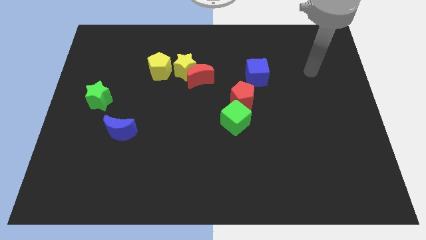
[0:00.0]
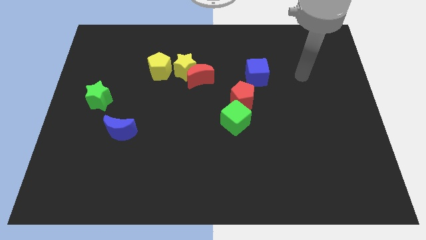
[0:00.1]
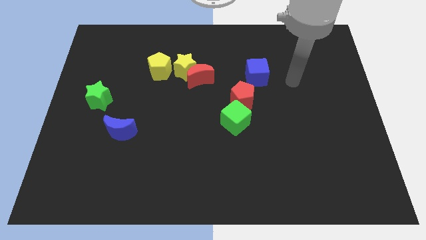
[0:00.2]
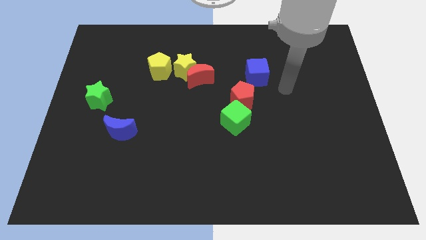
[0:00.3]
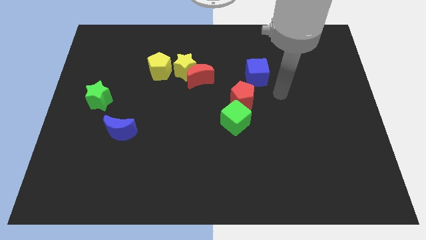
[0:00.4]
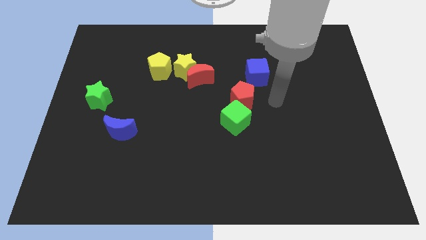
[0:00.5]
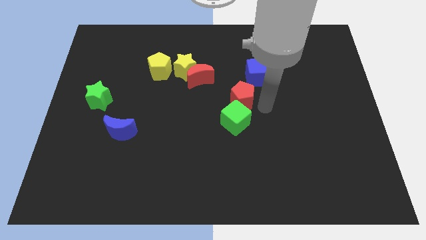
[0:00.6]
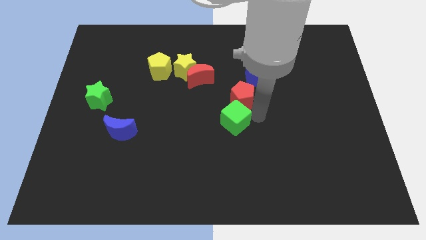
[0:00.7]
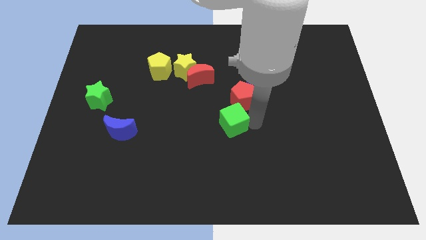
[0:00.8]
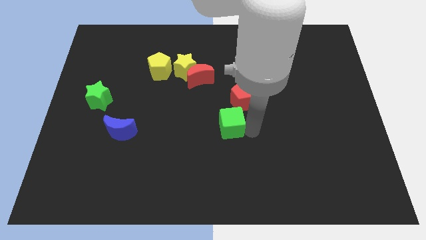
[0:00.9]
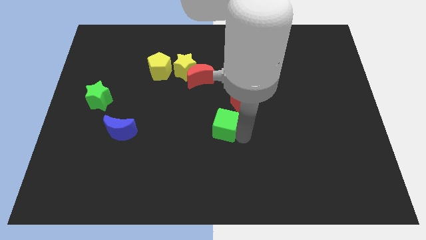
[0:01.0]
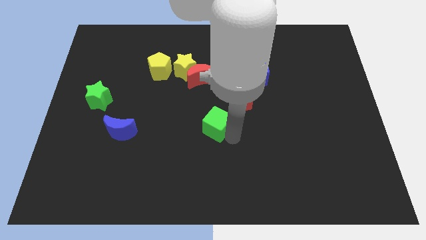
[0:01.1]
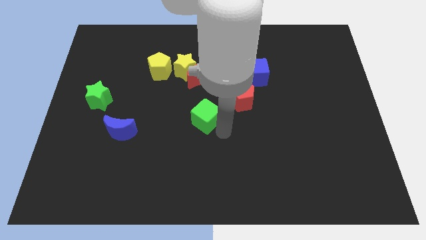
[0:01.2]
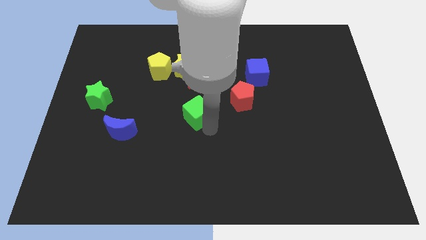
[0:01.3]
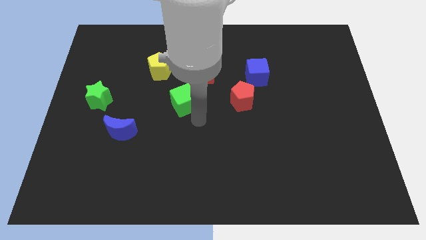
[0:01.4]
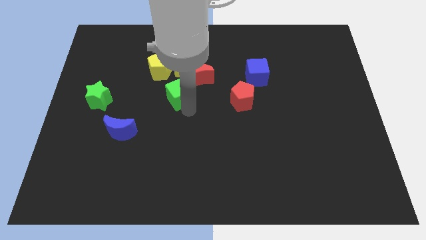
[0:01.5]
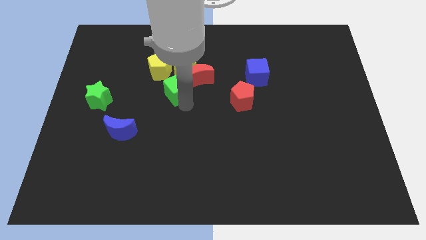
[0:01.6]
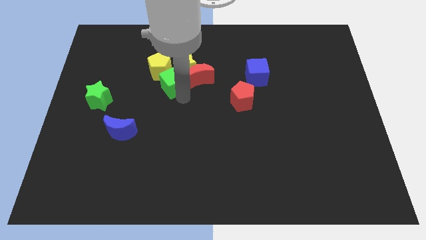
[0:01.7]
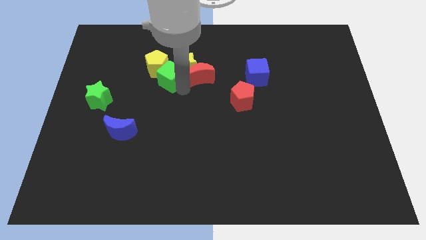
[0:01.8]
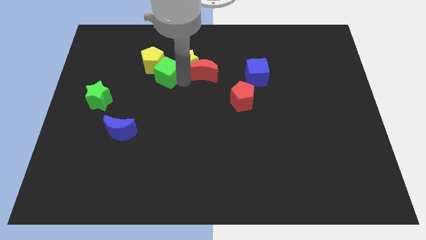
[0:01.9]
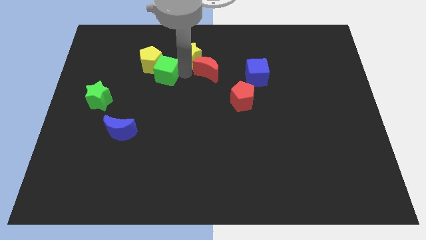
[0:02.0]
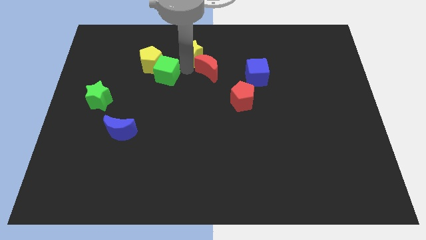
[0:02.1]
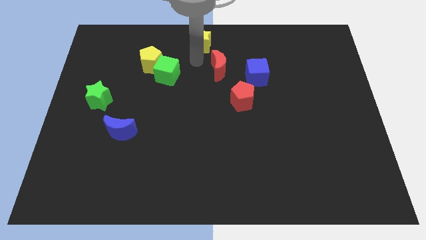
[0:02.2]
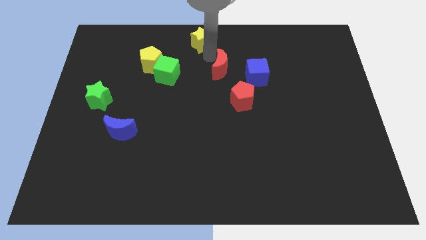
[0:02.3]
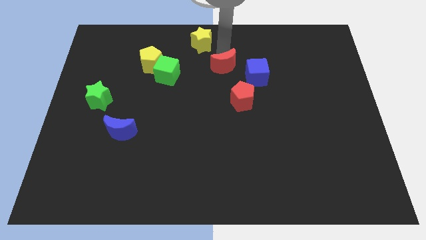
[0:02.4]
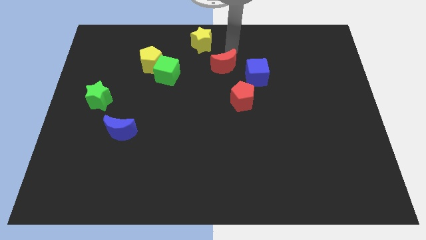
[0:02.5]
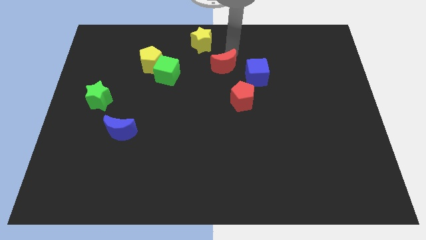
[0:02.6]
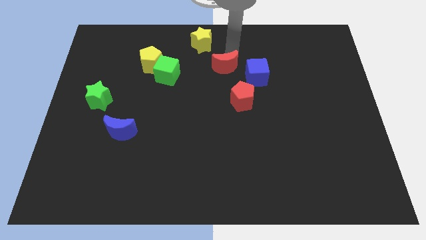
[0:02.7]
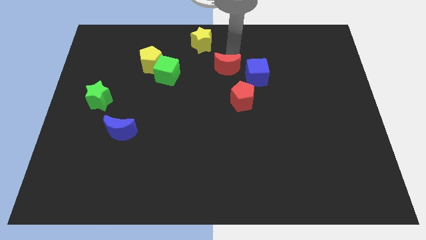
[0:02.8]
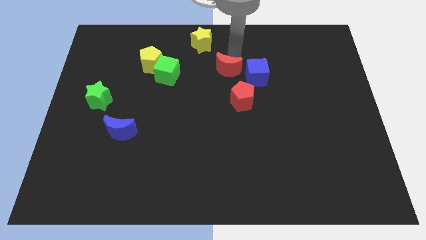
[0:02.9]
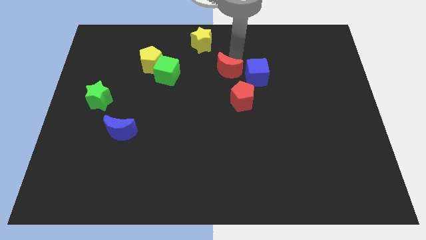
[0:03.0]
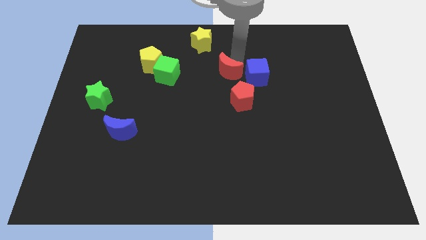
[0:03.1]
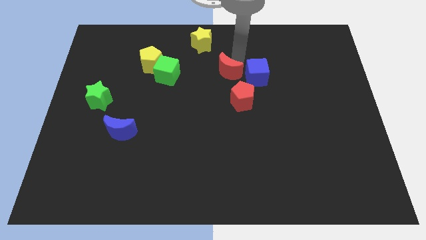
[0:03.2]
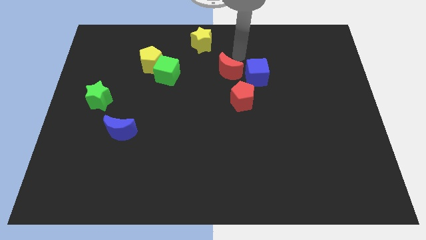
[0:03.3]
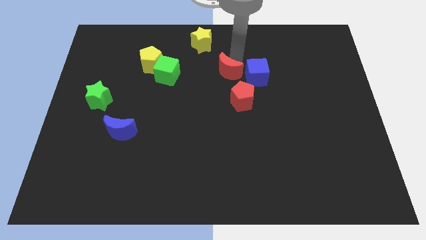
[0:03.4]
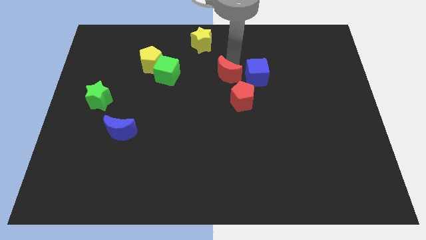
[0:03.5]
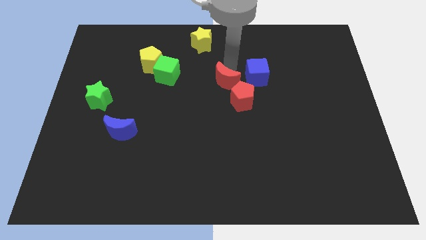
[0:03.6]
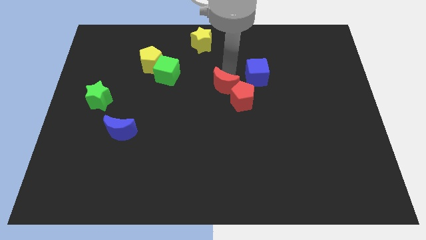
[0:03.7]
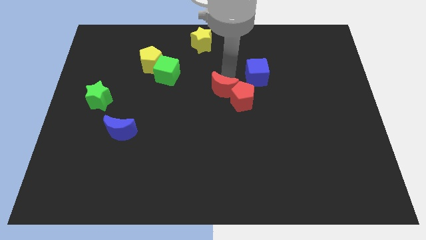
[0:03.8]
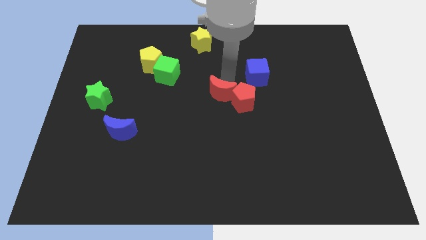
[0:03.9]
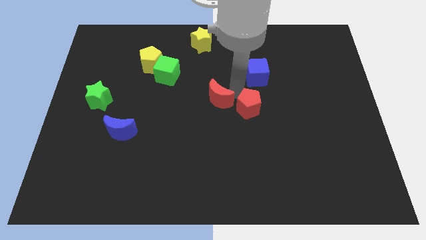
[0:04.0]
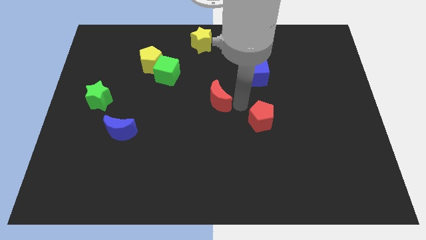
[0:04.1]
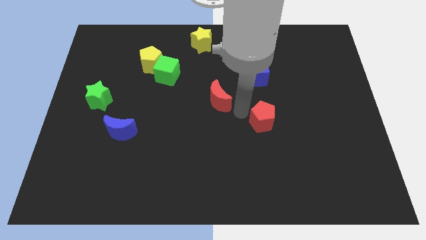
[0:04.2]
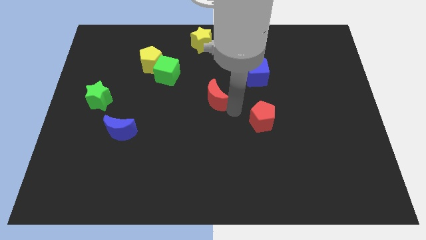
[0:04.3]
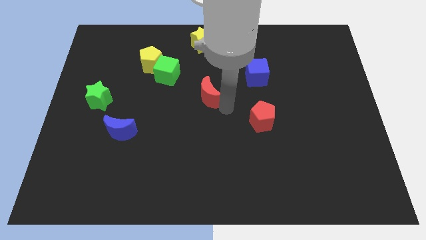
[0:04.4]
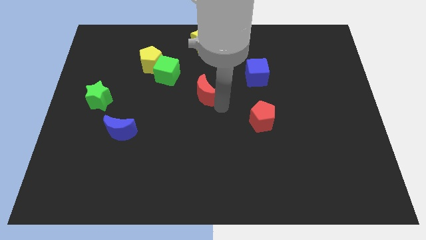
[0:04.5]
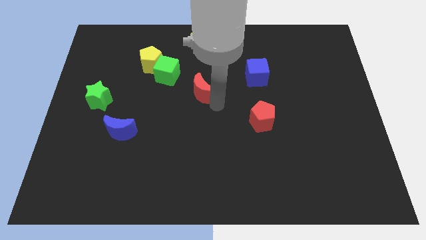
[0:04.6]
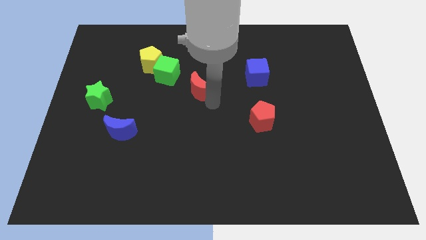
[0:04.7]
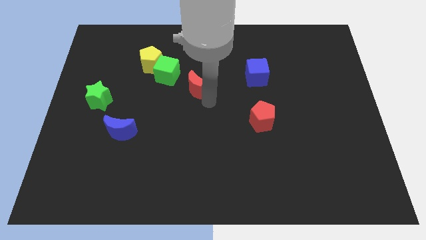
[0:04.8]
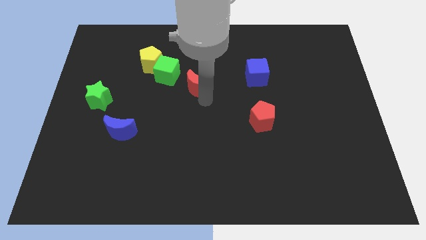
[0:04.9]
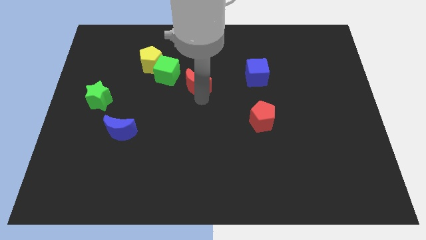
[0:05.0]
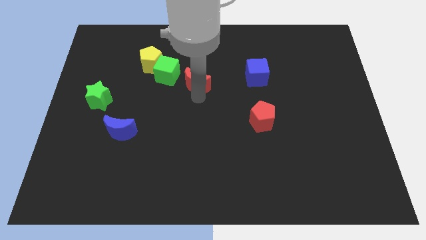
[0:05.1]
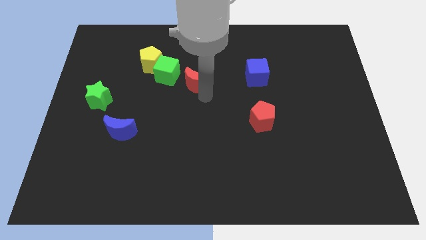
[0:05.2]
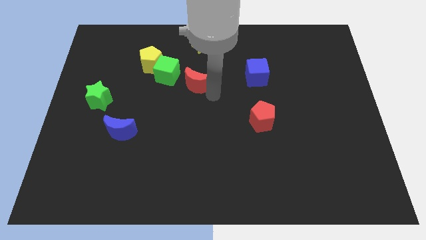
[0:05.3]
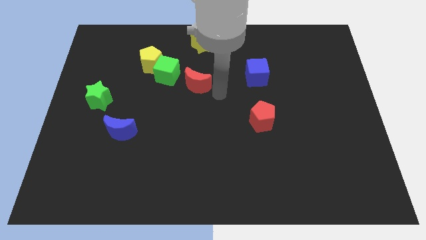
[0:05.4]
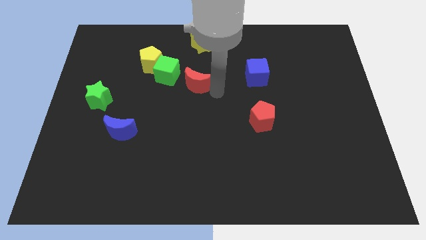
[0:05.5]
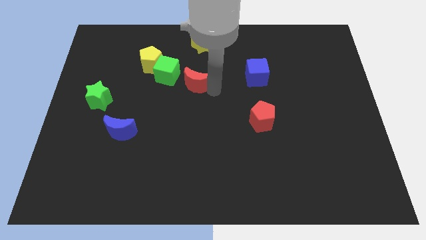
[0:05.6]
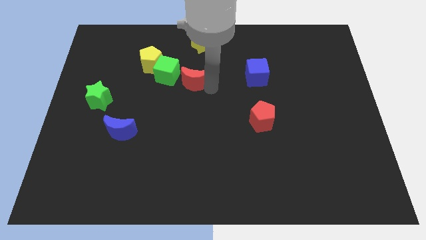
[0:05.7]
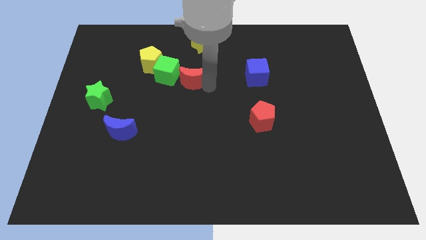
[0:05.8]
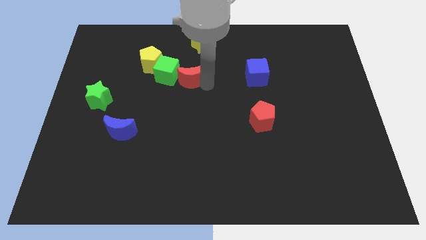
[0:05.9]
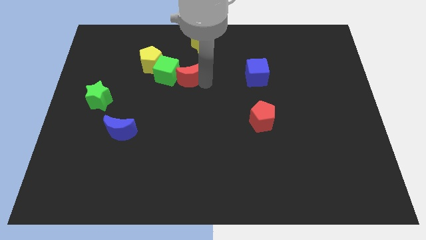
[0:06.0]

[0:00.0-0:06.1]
move the red moon close to the green cube

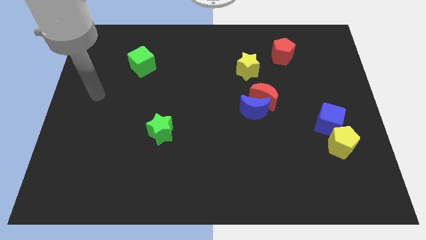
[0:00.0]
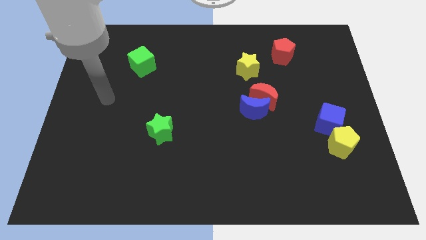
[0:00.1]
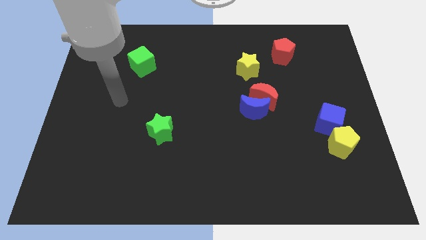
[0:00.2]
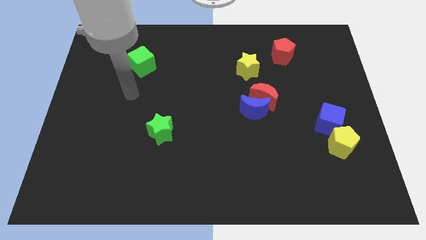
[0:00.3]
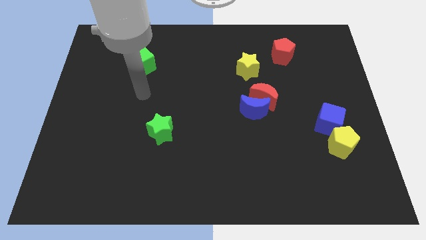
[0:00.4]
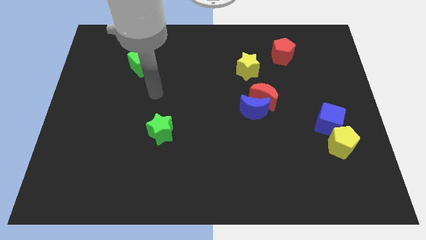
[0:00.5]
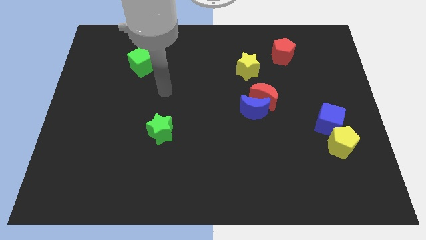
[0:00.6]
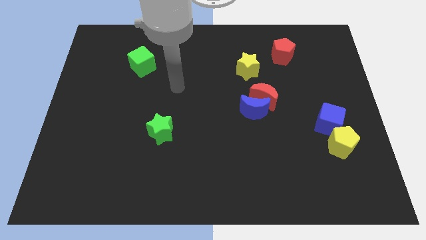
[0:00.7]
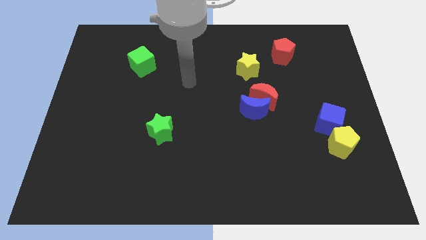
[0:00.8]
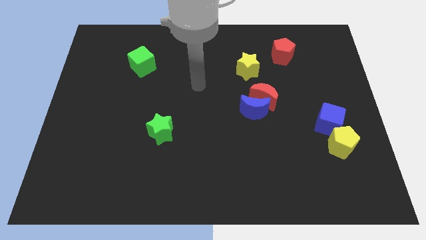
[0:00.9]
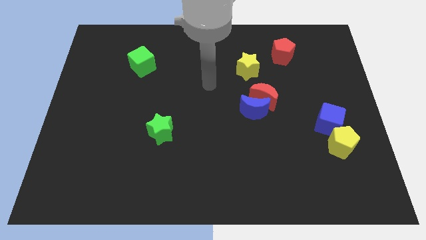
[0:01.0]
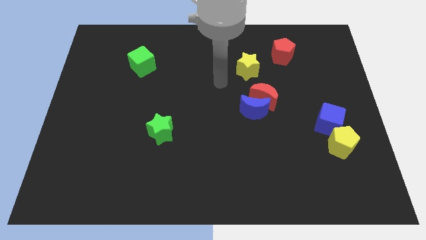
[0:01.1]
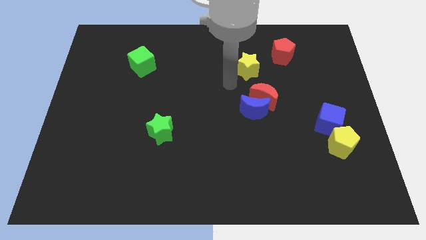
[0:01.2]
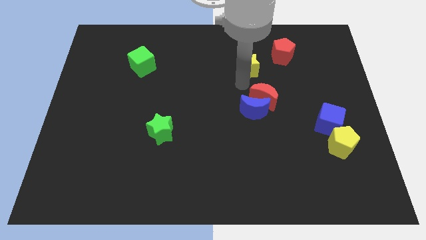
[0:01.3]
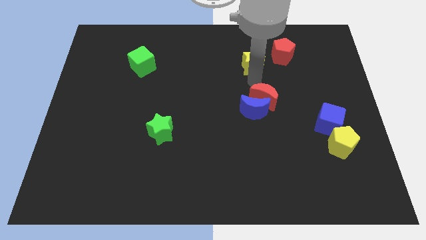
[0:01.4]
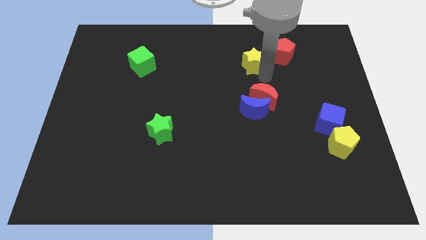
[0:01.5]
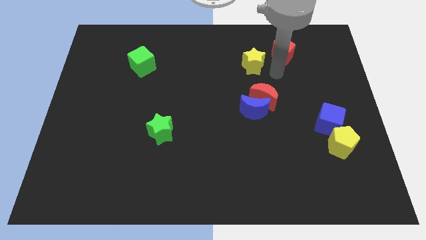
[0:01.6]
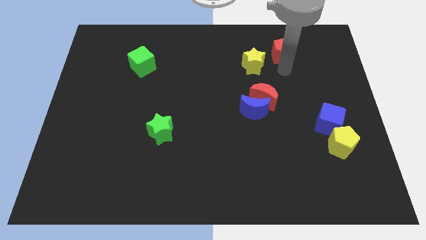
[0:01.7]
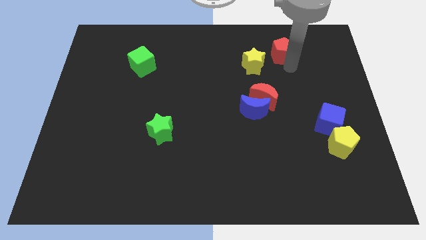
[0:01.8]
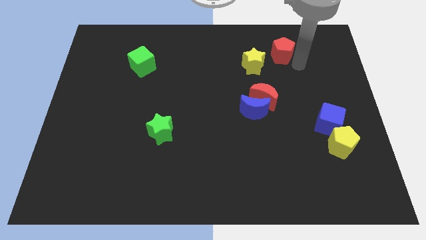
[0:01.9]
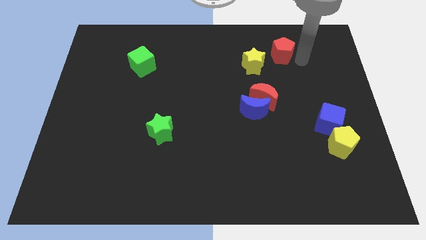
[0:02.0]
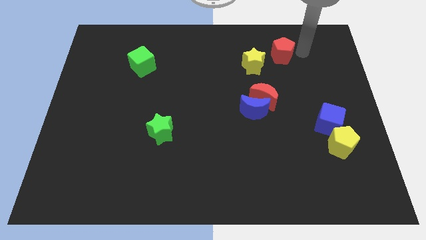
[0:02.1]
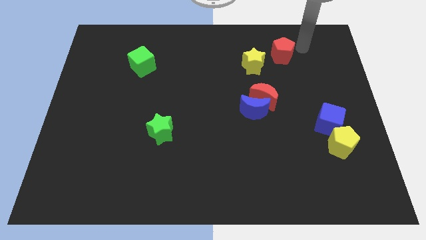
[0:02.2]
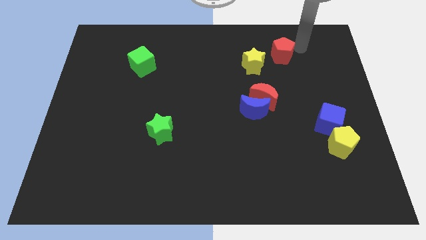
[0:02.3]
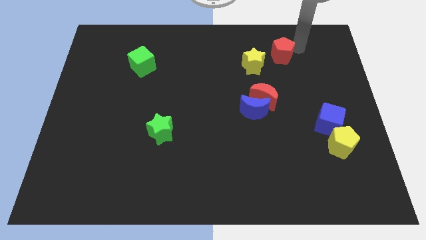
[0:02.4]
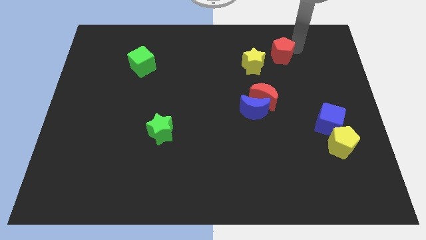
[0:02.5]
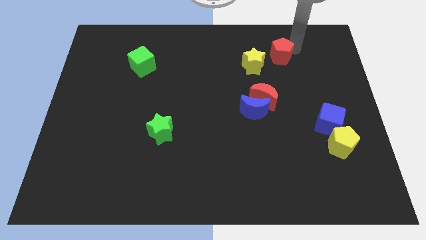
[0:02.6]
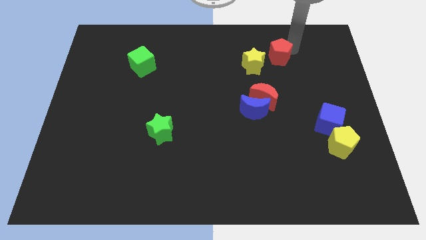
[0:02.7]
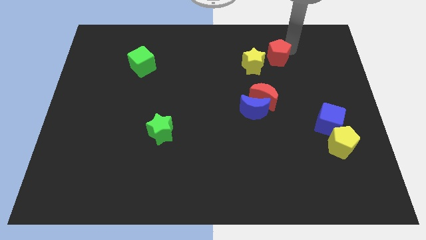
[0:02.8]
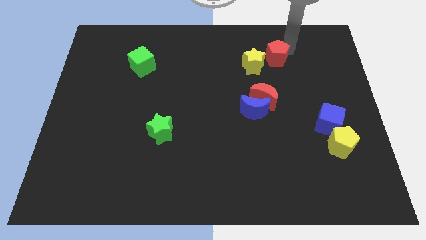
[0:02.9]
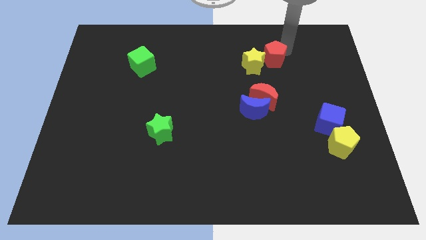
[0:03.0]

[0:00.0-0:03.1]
slide the red pentagon next to the yellow star
